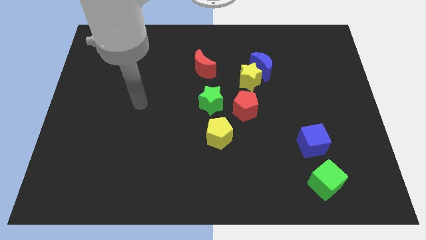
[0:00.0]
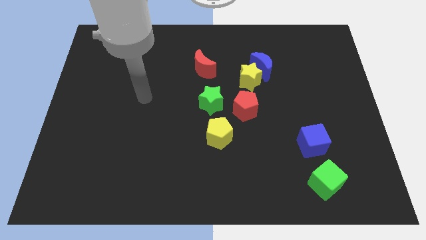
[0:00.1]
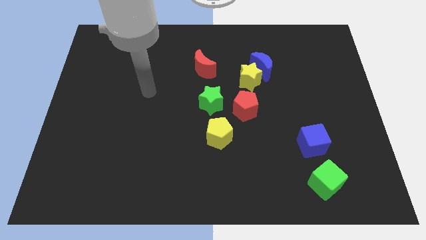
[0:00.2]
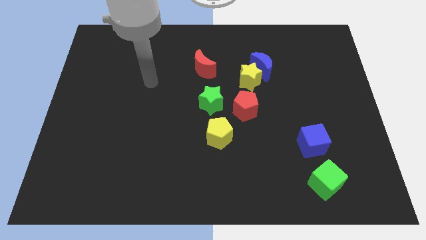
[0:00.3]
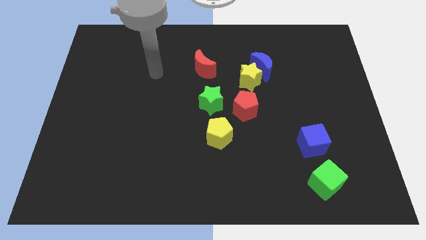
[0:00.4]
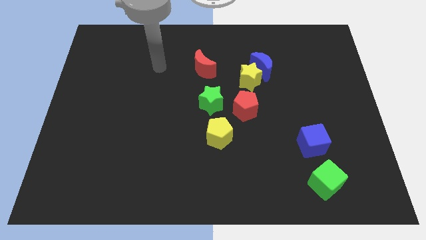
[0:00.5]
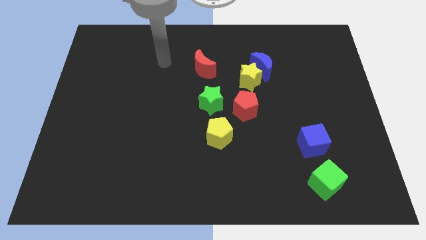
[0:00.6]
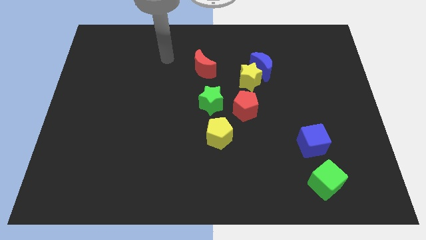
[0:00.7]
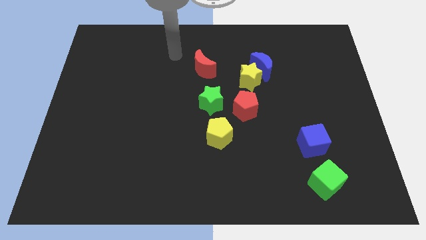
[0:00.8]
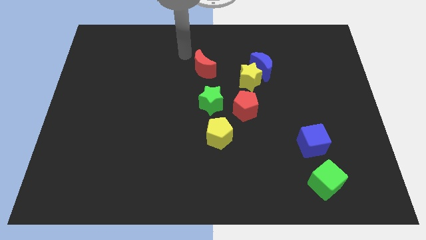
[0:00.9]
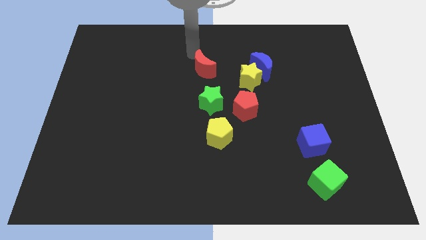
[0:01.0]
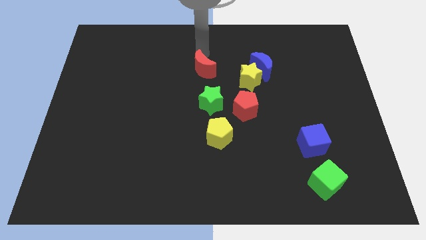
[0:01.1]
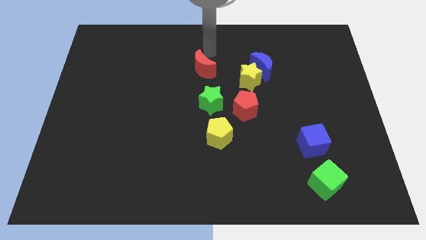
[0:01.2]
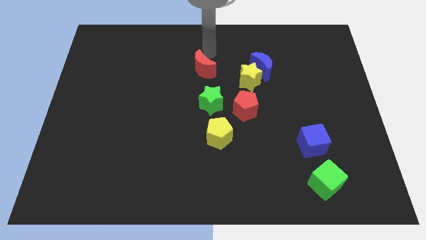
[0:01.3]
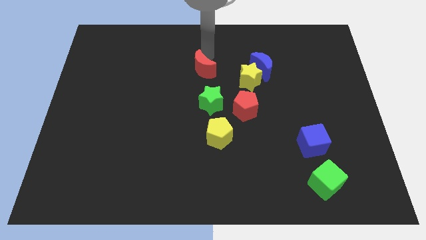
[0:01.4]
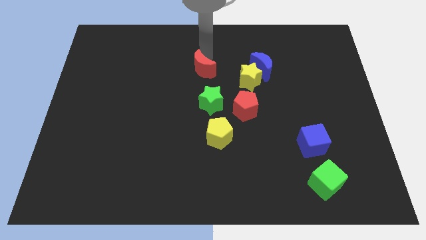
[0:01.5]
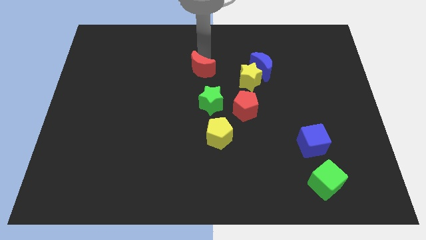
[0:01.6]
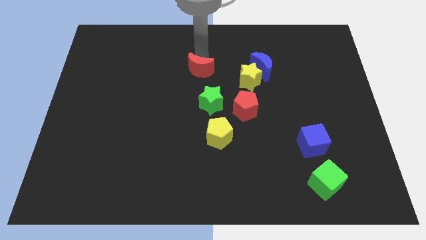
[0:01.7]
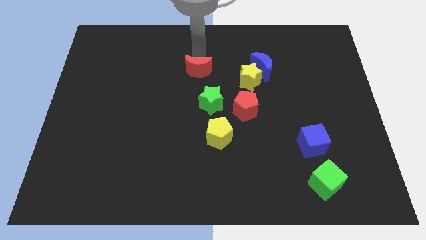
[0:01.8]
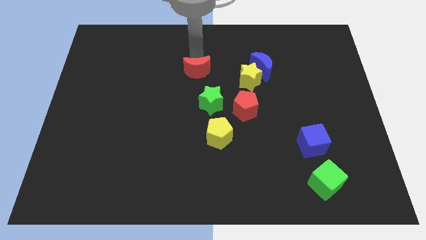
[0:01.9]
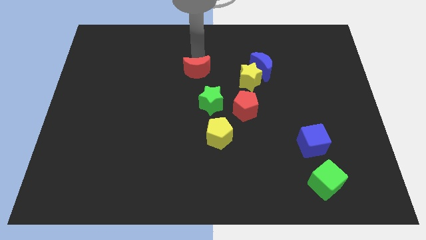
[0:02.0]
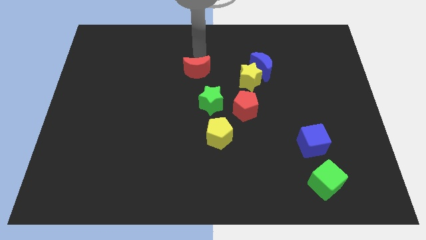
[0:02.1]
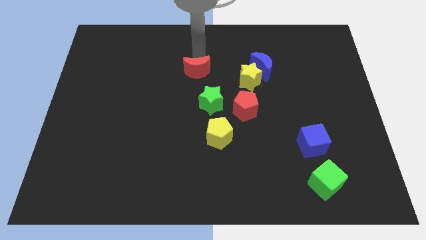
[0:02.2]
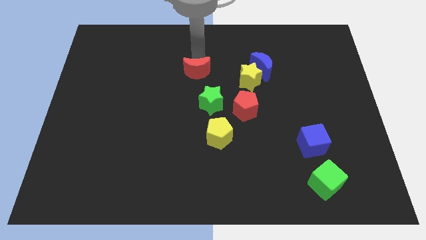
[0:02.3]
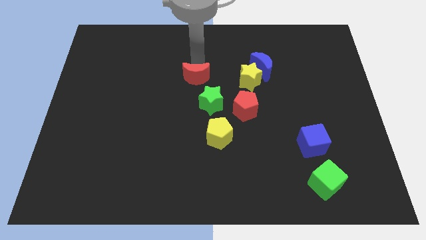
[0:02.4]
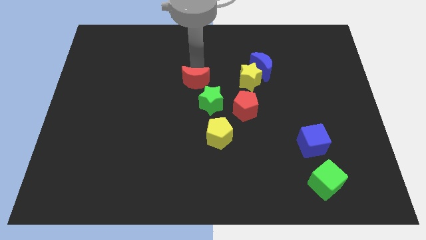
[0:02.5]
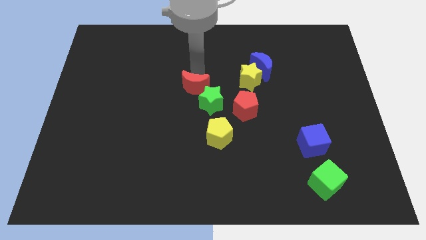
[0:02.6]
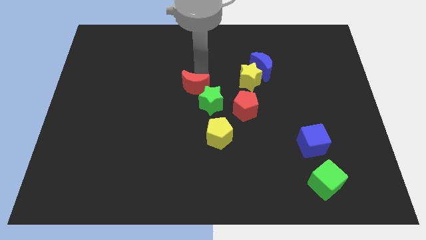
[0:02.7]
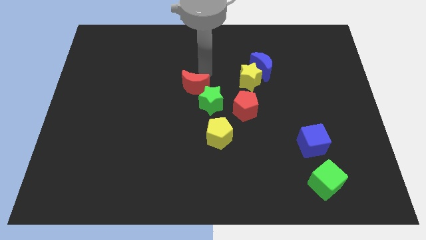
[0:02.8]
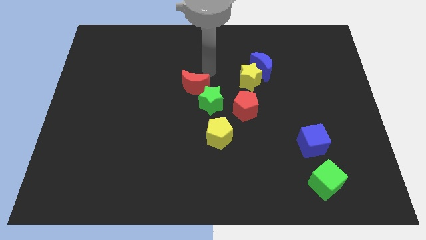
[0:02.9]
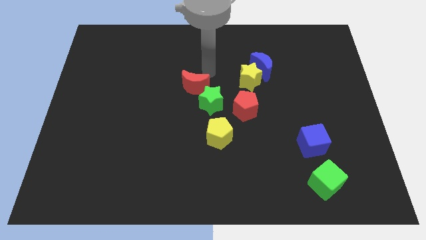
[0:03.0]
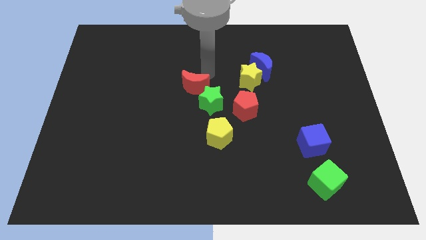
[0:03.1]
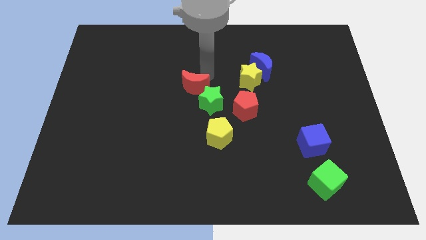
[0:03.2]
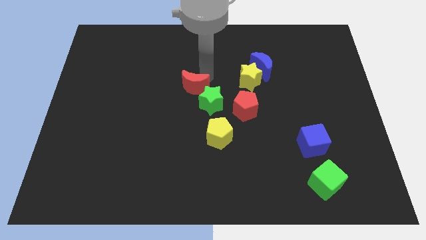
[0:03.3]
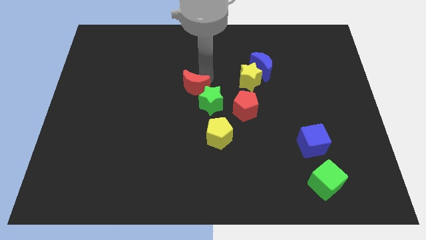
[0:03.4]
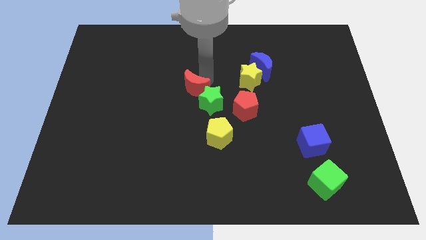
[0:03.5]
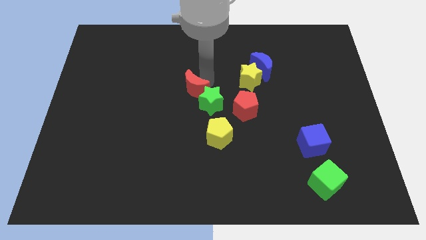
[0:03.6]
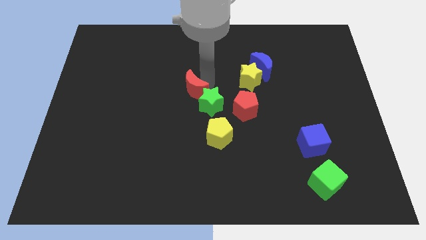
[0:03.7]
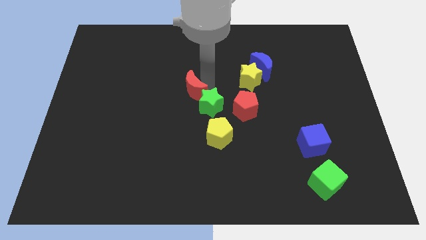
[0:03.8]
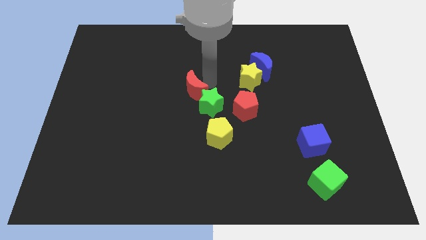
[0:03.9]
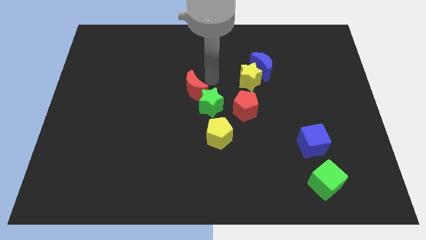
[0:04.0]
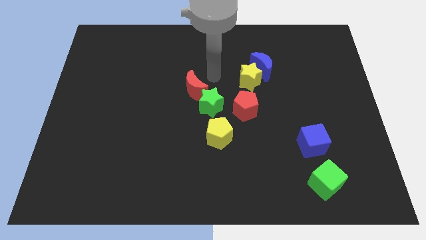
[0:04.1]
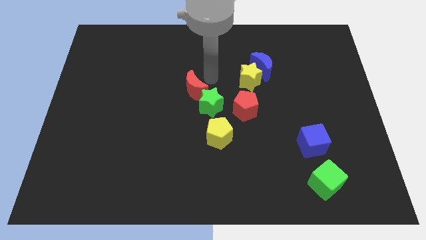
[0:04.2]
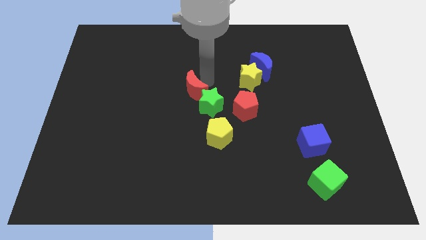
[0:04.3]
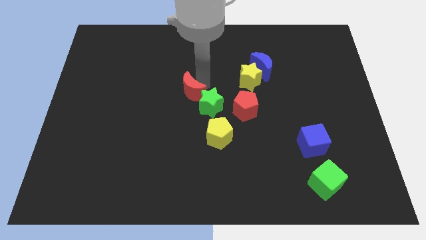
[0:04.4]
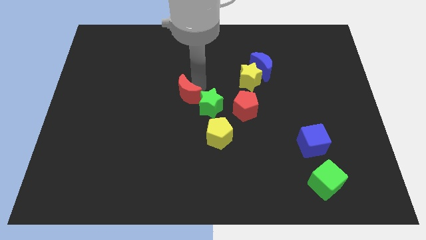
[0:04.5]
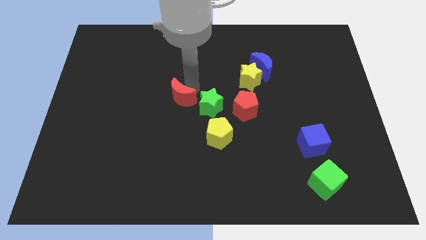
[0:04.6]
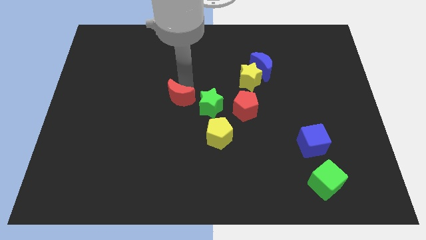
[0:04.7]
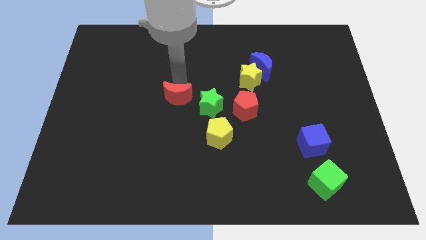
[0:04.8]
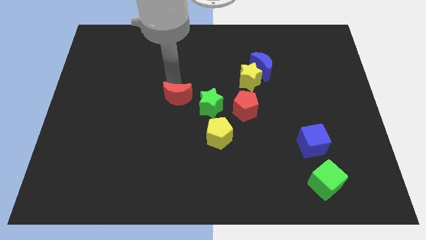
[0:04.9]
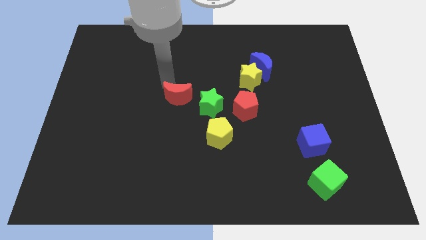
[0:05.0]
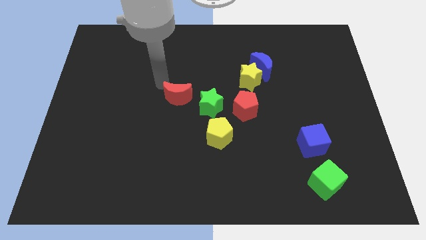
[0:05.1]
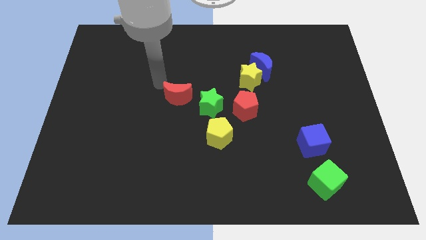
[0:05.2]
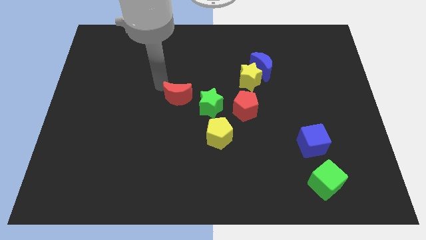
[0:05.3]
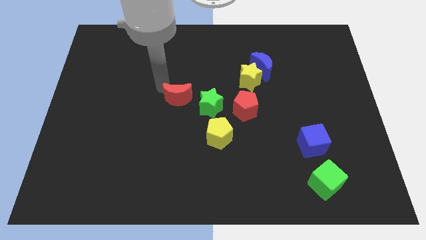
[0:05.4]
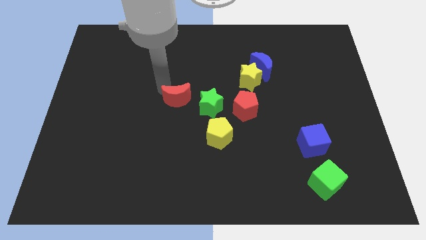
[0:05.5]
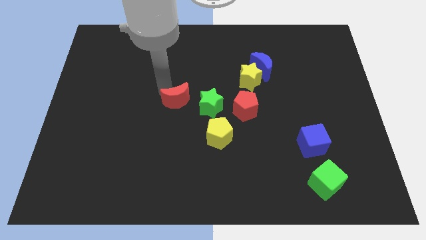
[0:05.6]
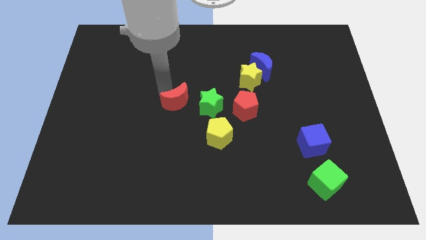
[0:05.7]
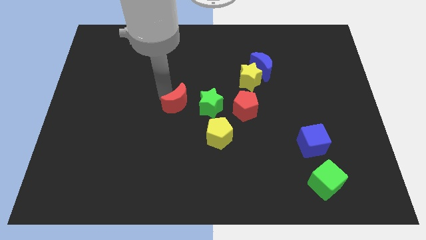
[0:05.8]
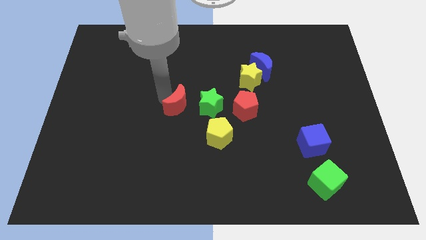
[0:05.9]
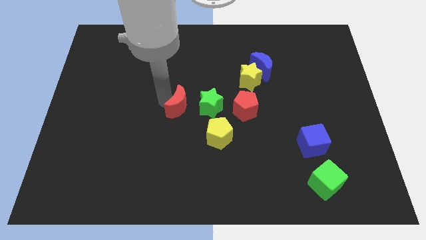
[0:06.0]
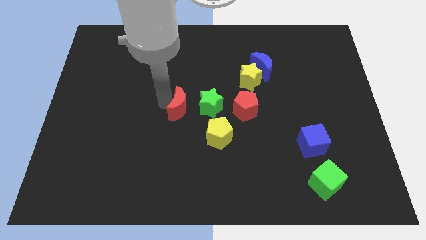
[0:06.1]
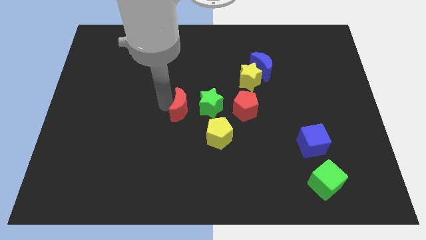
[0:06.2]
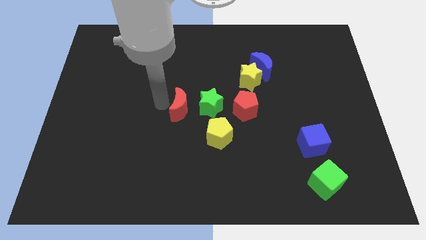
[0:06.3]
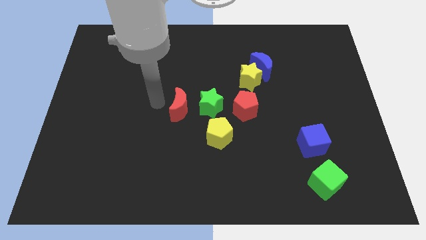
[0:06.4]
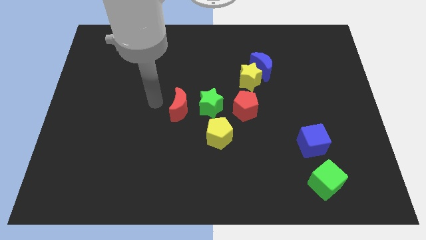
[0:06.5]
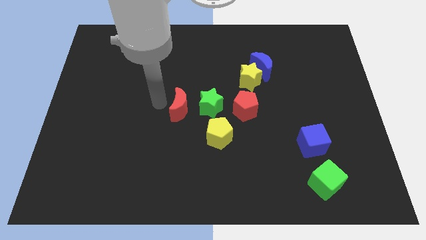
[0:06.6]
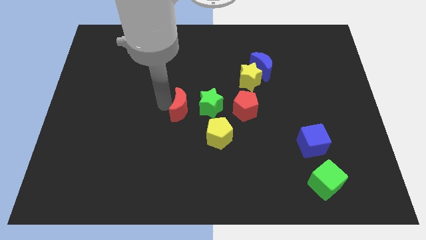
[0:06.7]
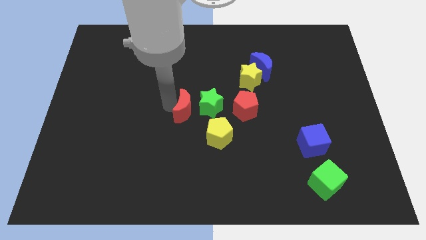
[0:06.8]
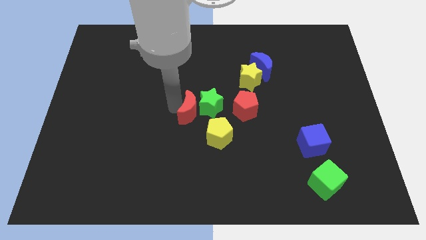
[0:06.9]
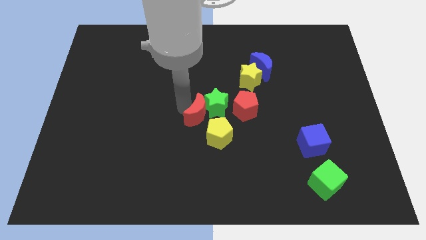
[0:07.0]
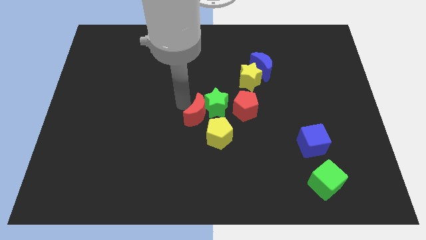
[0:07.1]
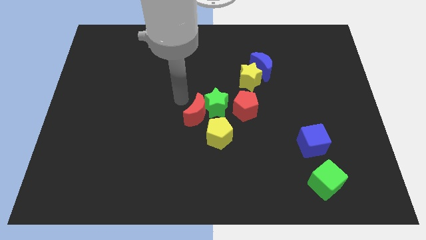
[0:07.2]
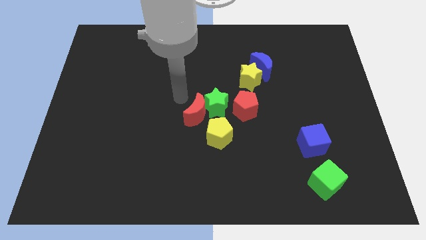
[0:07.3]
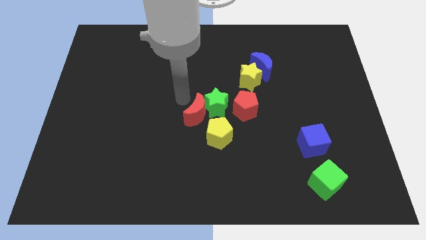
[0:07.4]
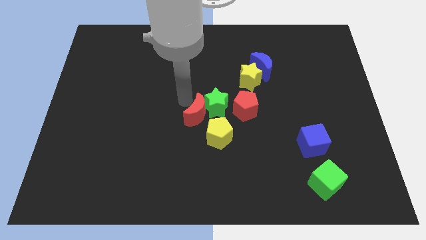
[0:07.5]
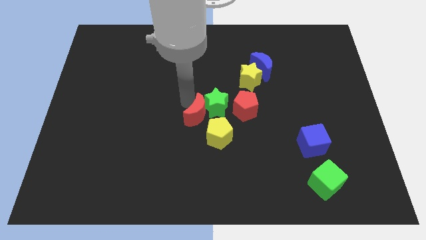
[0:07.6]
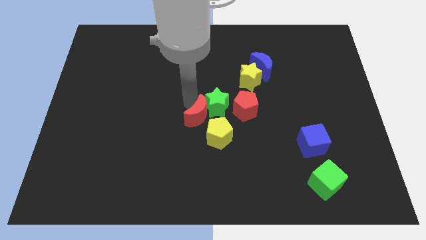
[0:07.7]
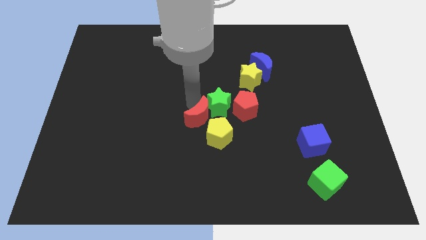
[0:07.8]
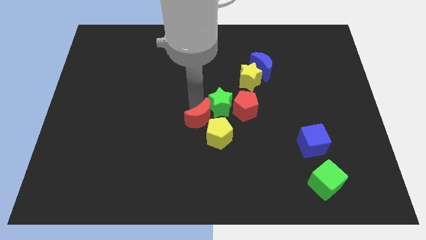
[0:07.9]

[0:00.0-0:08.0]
put the red moon close to the yellow pentagon
